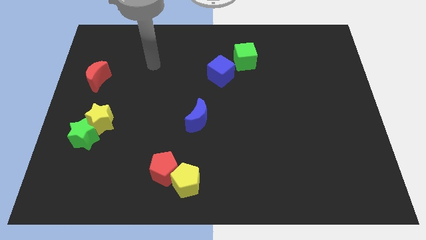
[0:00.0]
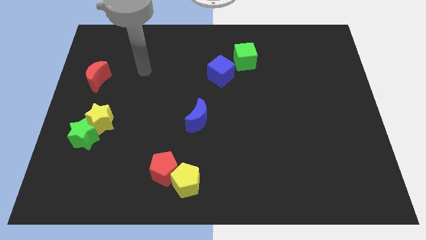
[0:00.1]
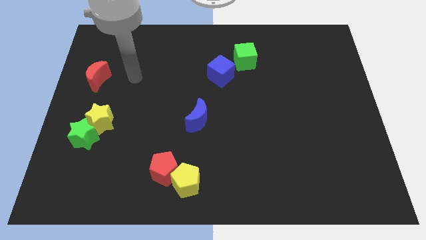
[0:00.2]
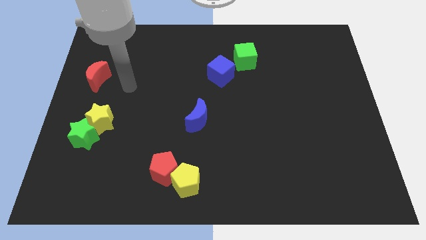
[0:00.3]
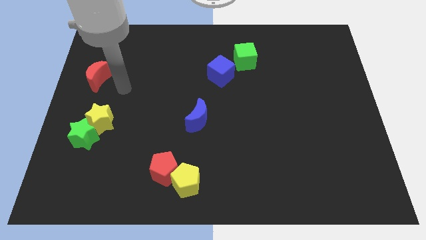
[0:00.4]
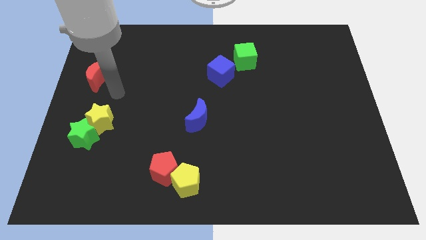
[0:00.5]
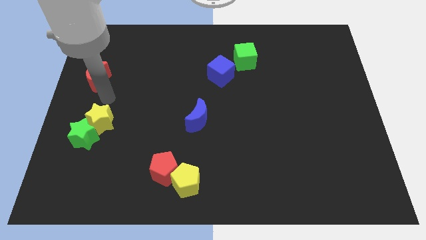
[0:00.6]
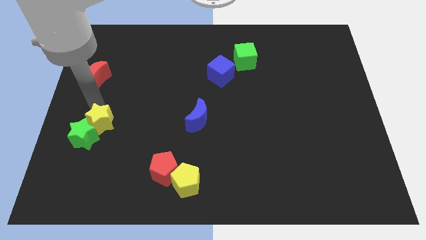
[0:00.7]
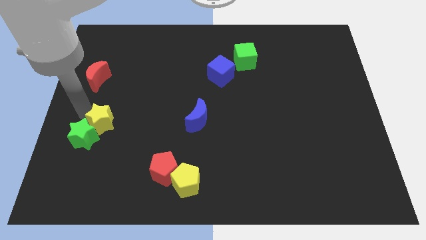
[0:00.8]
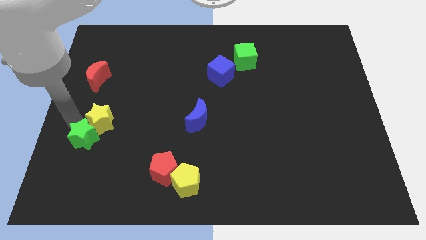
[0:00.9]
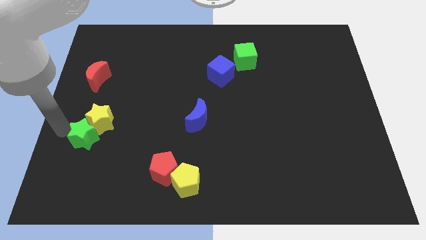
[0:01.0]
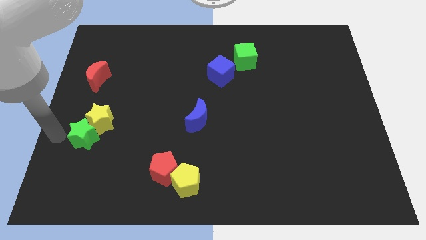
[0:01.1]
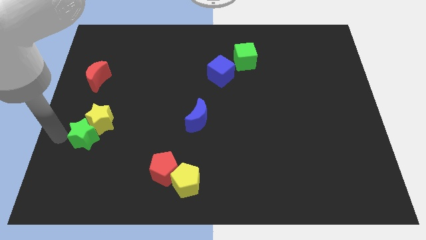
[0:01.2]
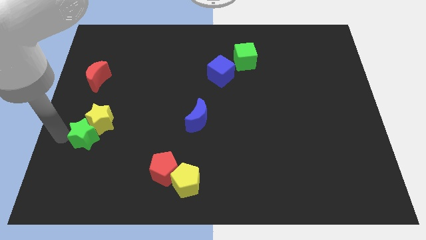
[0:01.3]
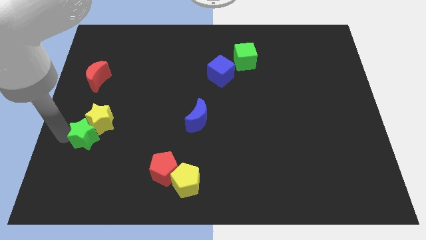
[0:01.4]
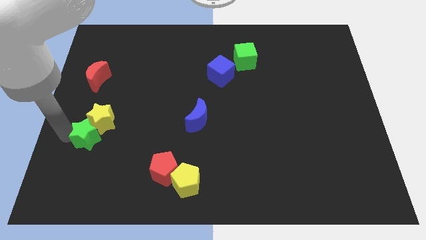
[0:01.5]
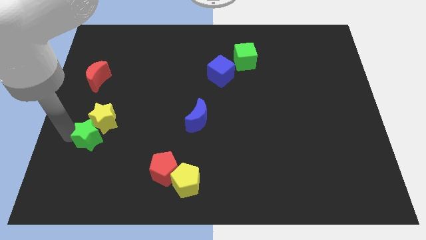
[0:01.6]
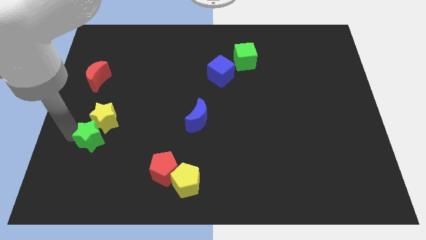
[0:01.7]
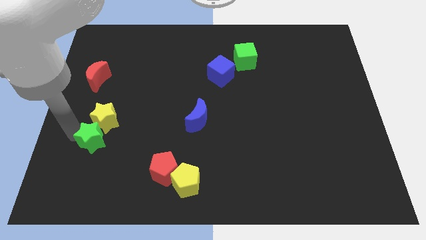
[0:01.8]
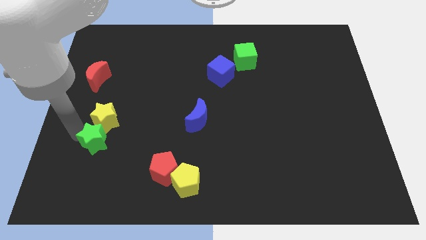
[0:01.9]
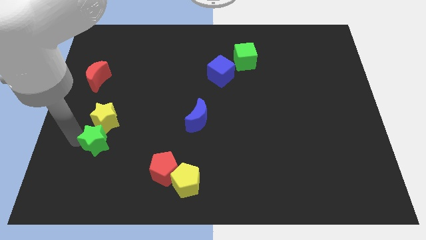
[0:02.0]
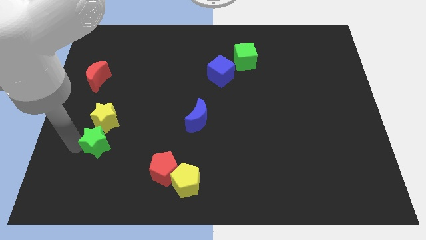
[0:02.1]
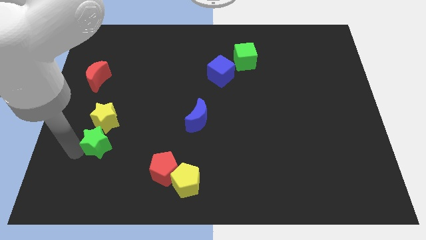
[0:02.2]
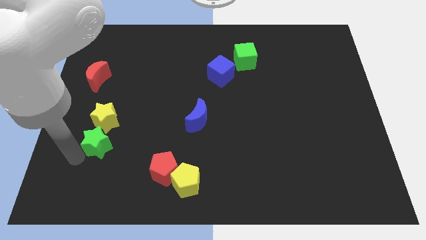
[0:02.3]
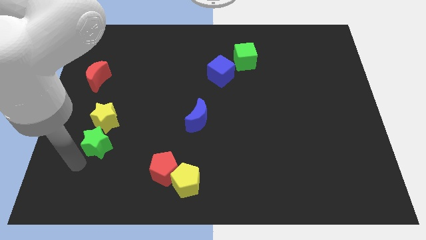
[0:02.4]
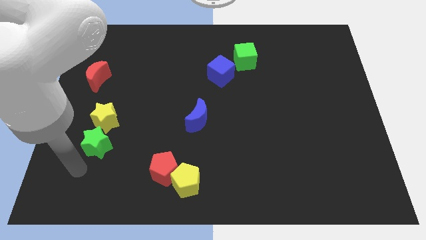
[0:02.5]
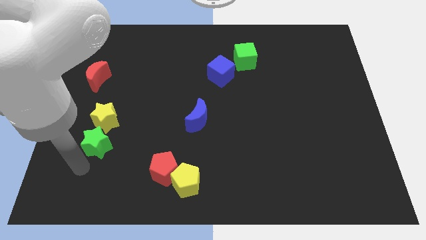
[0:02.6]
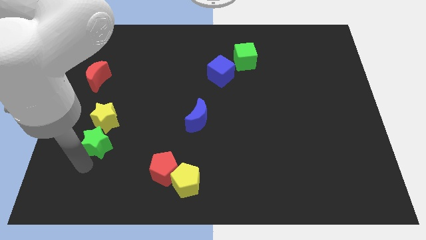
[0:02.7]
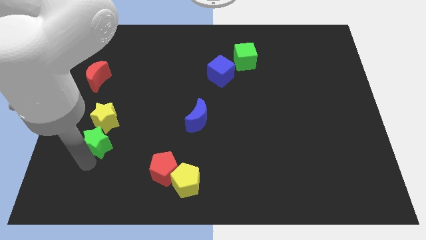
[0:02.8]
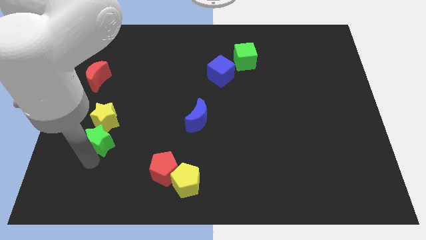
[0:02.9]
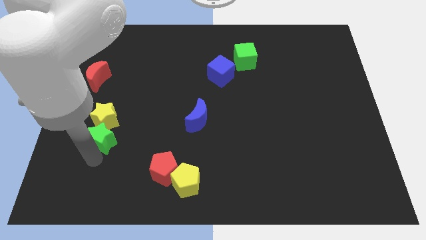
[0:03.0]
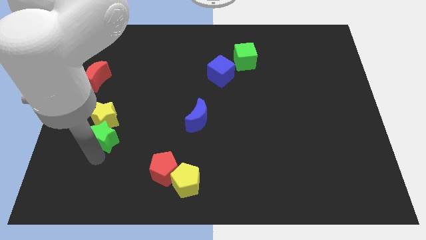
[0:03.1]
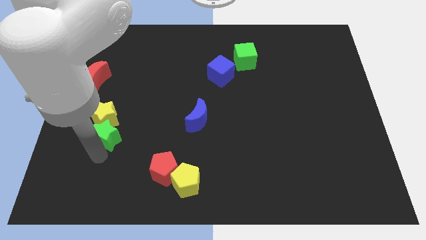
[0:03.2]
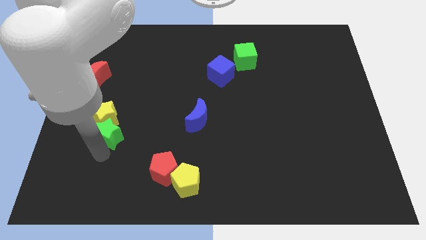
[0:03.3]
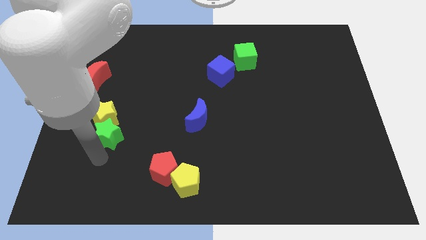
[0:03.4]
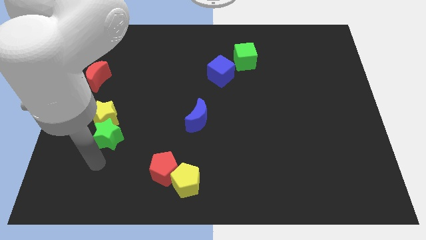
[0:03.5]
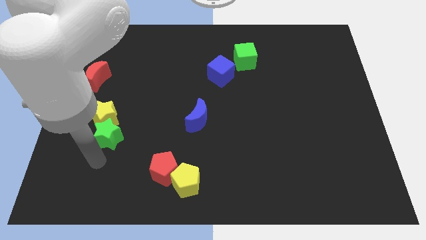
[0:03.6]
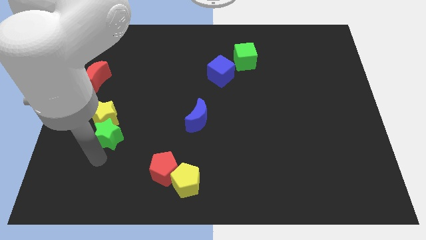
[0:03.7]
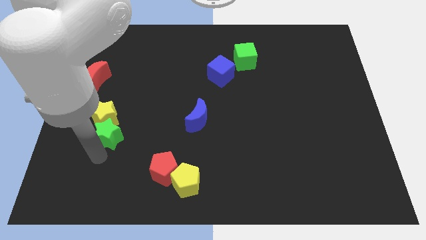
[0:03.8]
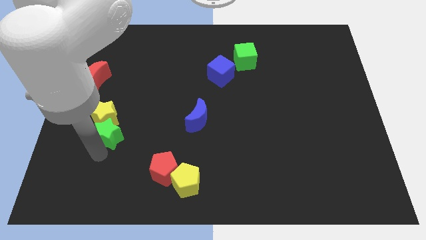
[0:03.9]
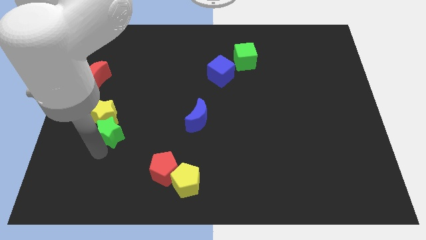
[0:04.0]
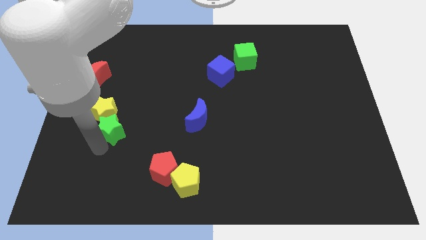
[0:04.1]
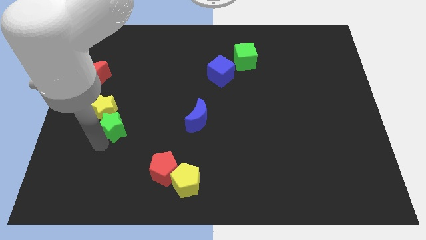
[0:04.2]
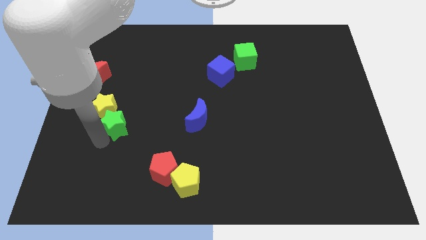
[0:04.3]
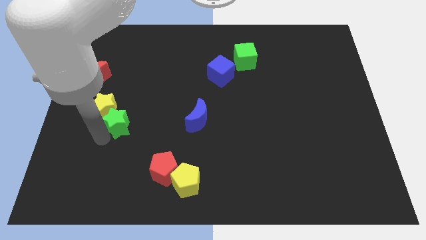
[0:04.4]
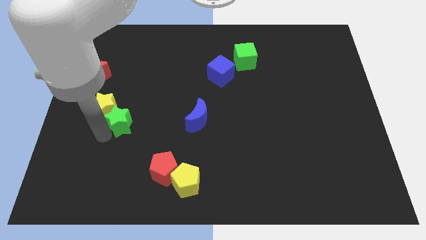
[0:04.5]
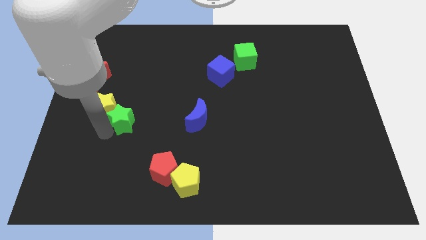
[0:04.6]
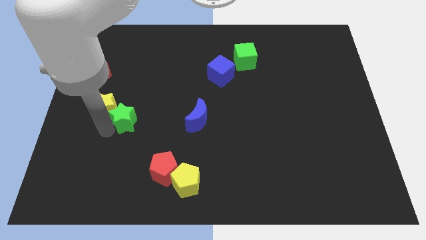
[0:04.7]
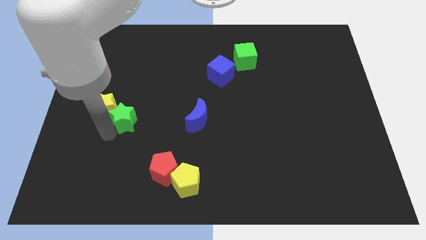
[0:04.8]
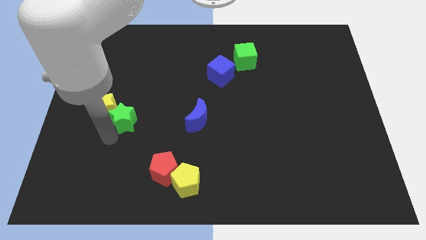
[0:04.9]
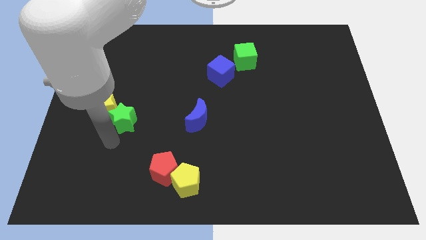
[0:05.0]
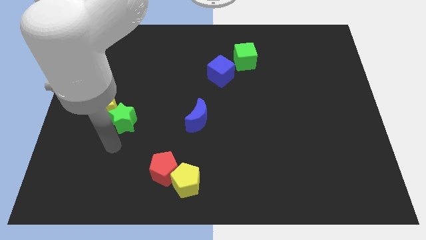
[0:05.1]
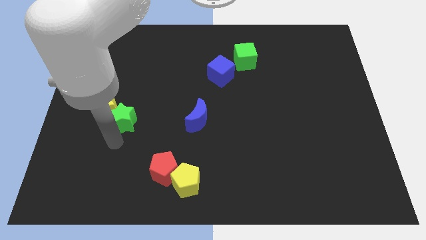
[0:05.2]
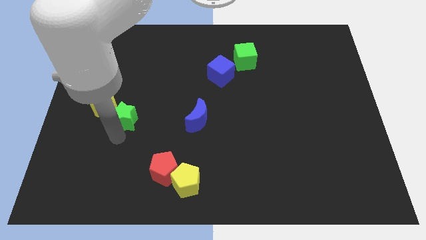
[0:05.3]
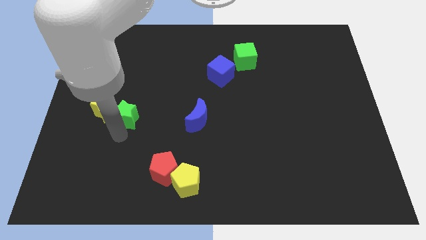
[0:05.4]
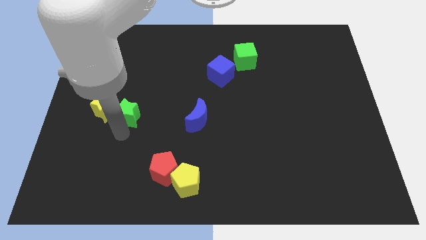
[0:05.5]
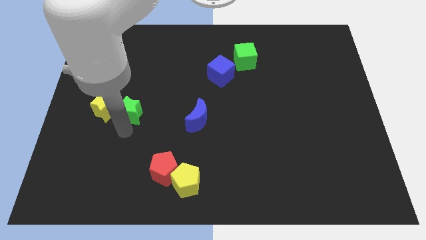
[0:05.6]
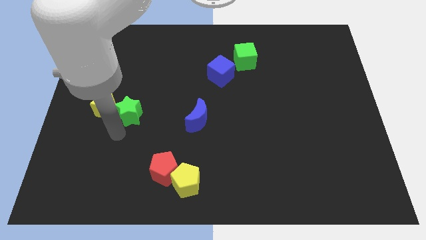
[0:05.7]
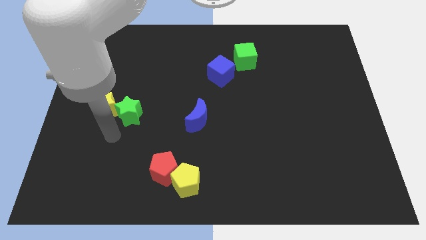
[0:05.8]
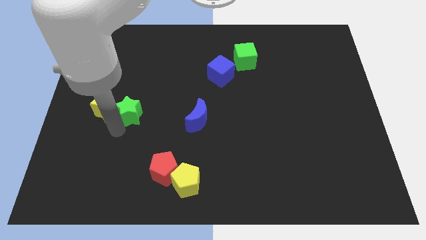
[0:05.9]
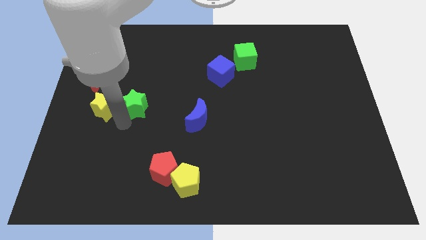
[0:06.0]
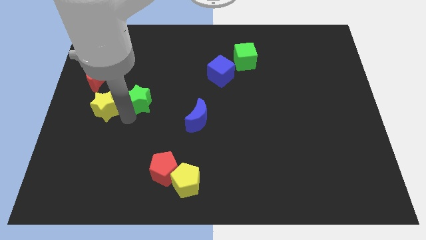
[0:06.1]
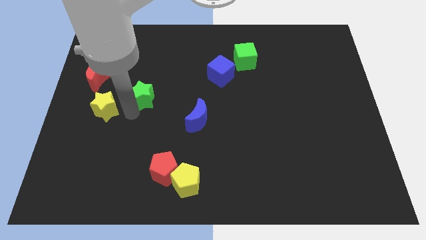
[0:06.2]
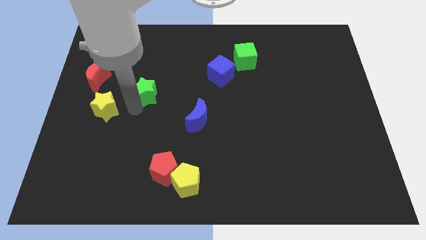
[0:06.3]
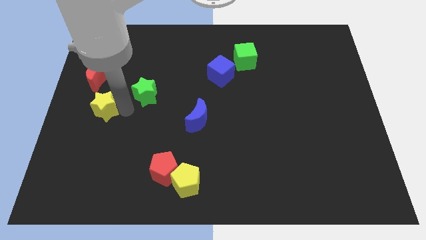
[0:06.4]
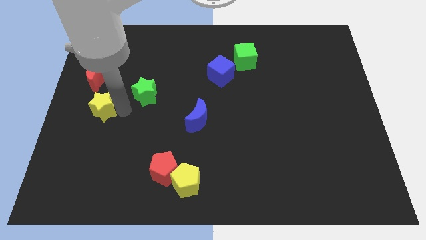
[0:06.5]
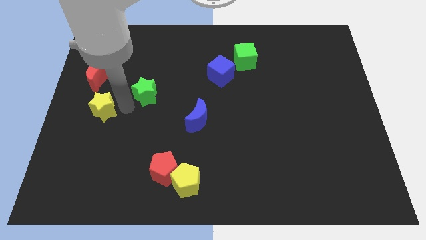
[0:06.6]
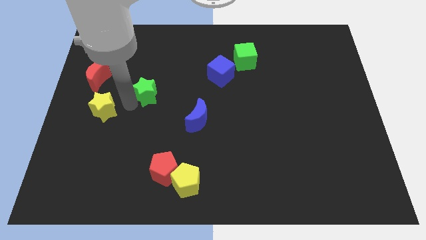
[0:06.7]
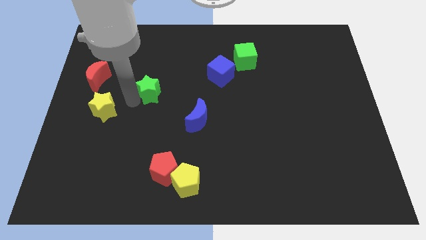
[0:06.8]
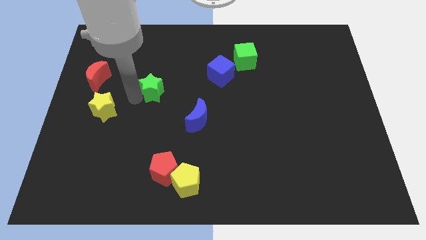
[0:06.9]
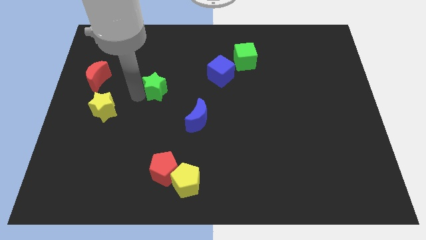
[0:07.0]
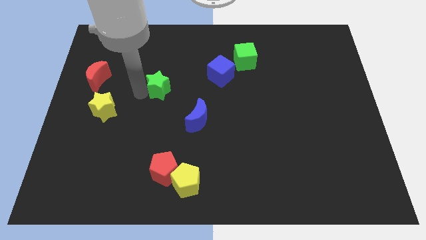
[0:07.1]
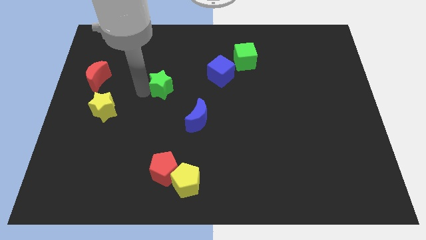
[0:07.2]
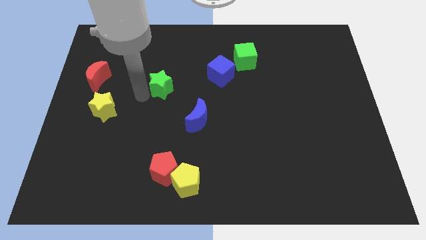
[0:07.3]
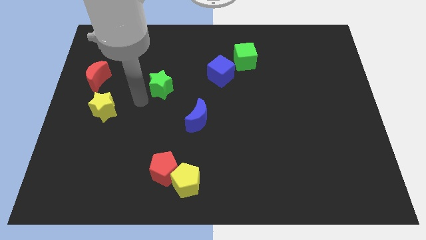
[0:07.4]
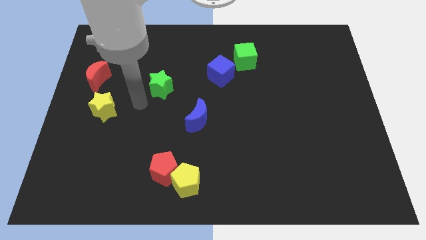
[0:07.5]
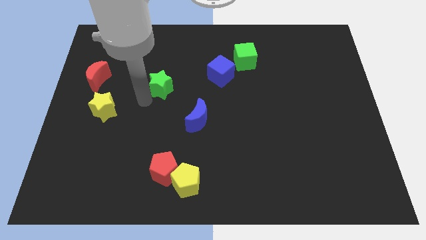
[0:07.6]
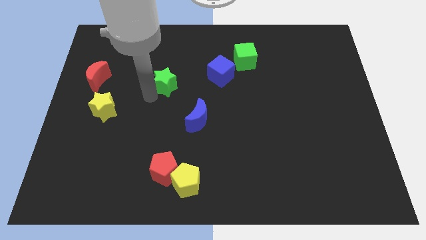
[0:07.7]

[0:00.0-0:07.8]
slide the green star just left of the blue cube
